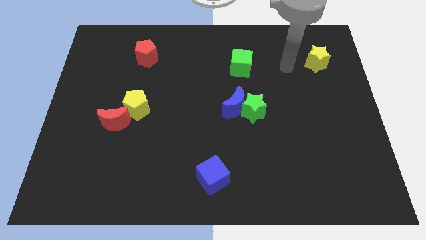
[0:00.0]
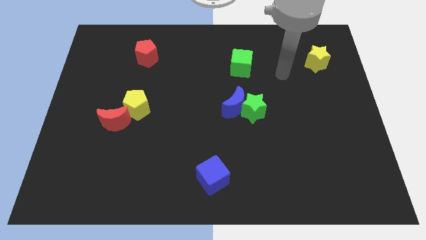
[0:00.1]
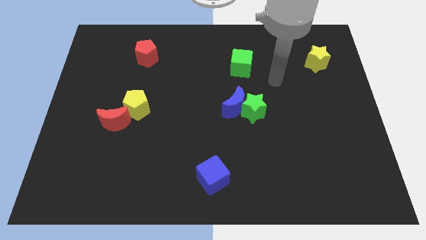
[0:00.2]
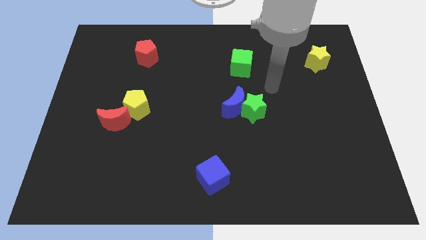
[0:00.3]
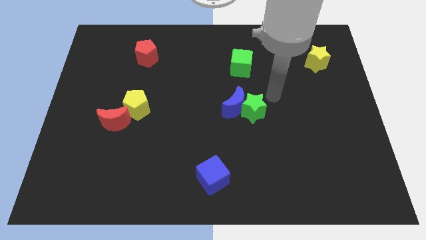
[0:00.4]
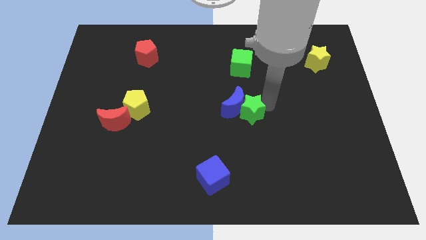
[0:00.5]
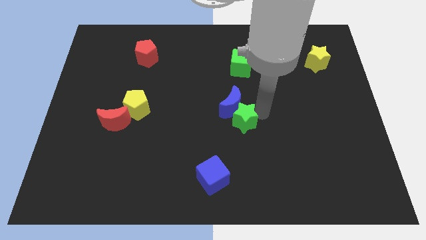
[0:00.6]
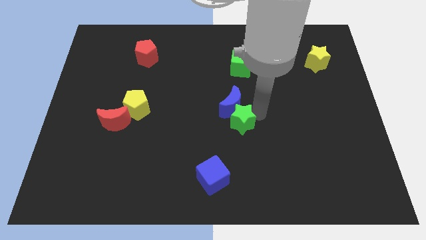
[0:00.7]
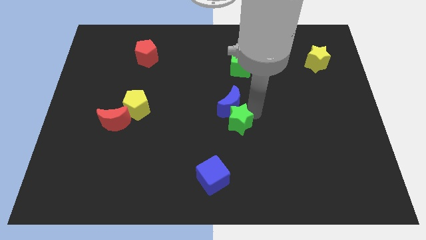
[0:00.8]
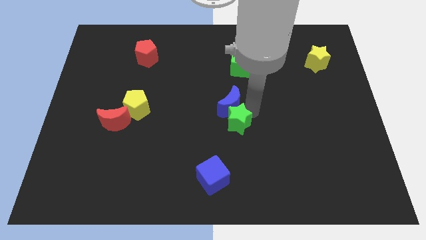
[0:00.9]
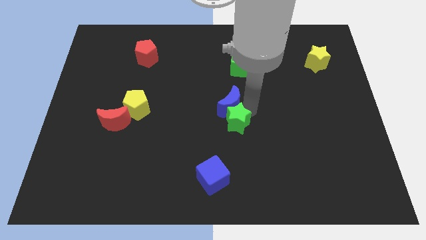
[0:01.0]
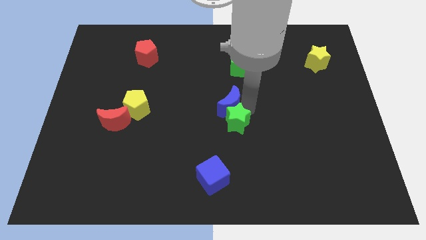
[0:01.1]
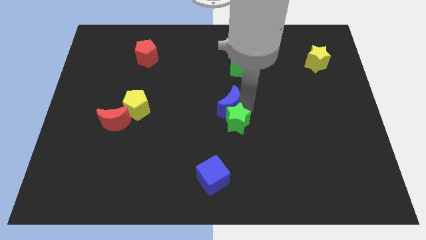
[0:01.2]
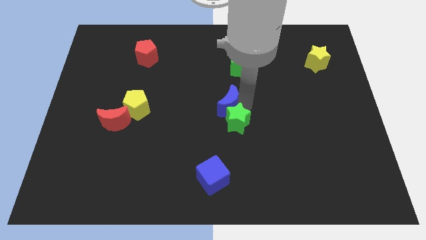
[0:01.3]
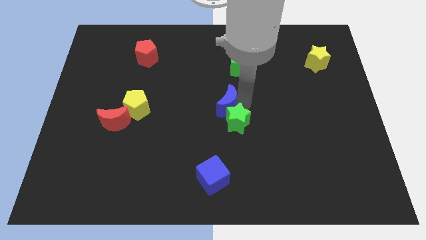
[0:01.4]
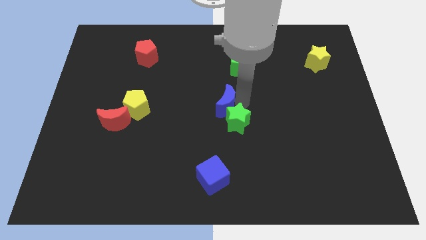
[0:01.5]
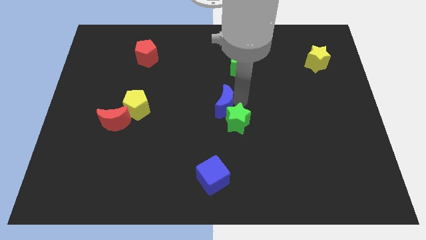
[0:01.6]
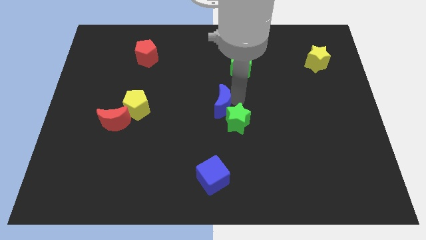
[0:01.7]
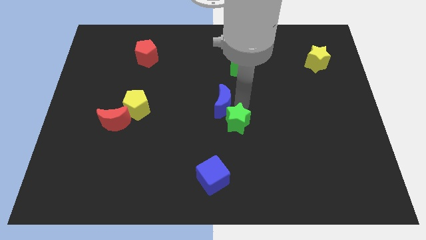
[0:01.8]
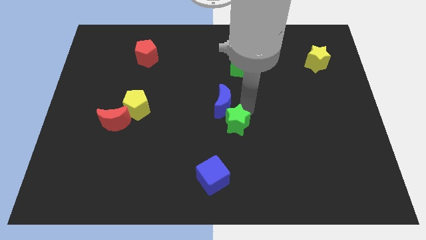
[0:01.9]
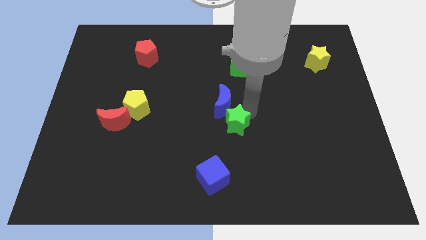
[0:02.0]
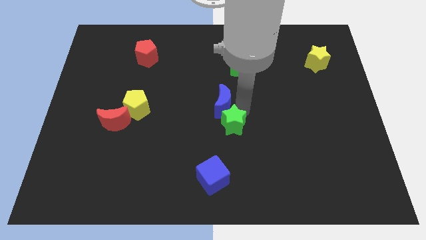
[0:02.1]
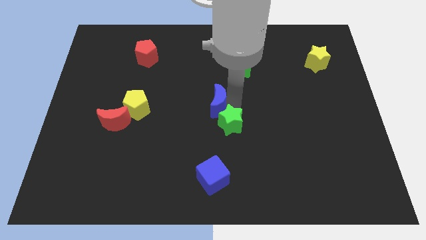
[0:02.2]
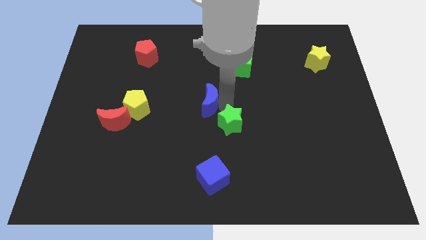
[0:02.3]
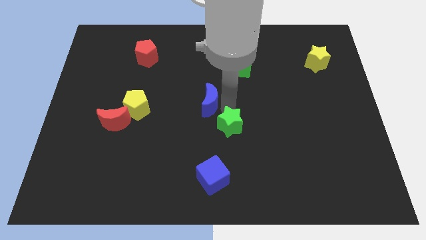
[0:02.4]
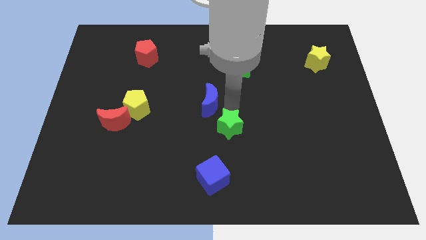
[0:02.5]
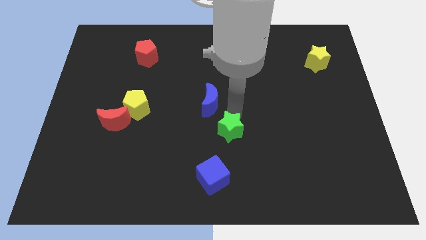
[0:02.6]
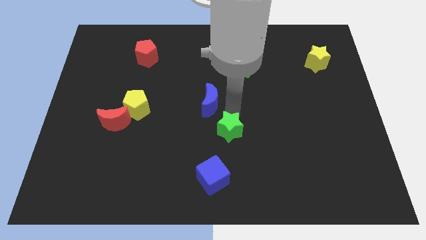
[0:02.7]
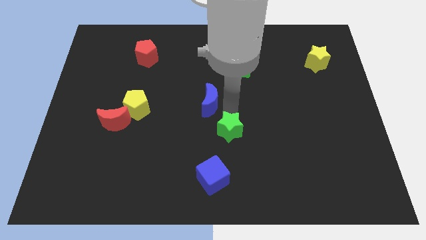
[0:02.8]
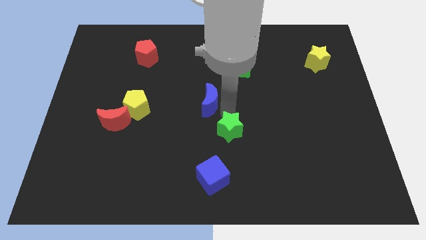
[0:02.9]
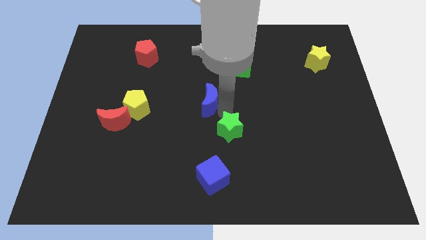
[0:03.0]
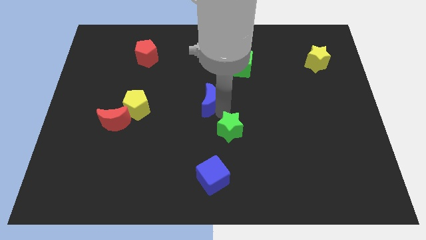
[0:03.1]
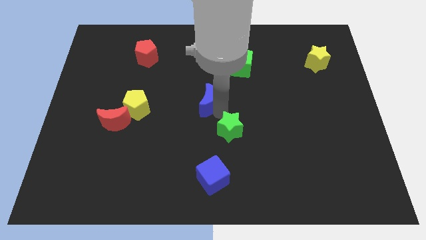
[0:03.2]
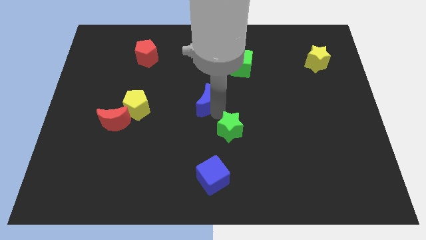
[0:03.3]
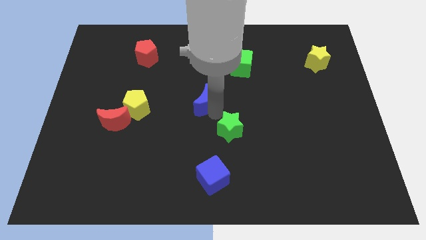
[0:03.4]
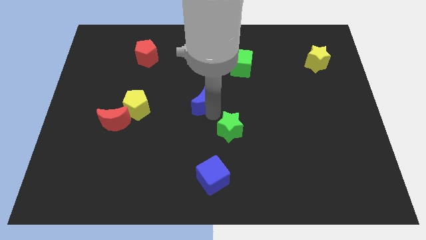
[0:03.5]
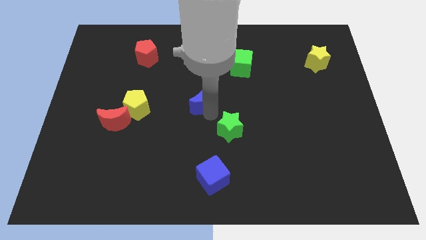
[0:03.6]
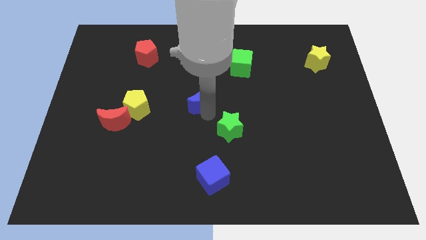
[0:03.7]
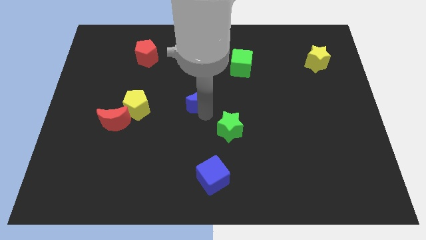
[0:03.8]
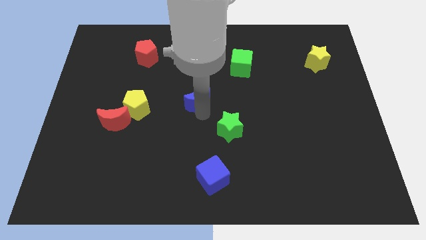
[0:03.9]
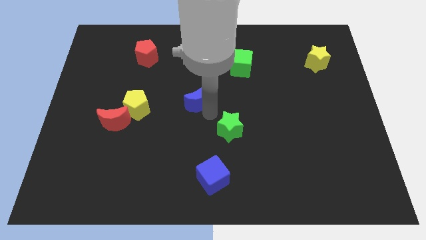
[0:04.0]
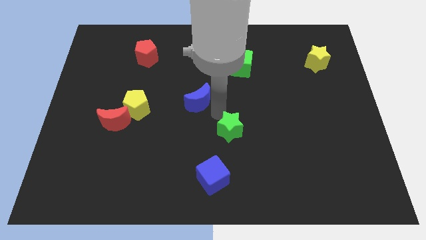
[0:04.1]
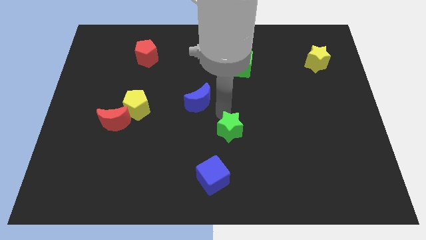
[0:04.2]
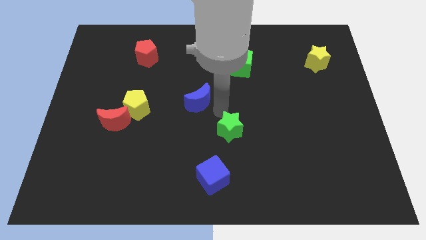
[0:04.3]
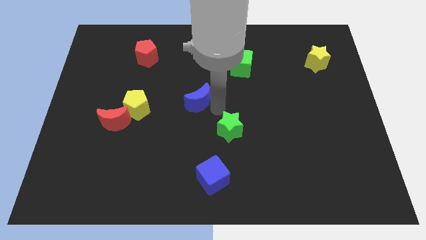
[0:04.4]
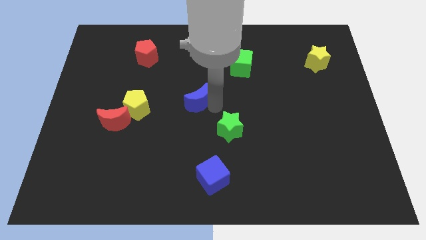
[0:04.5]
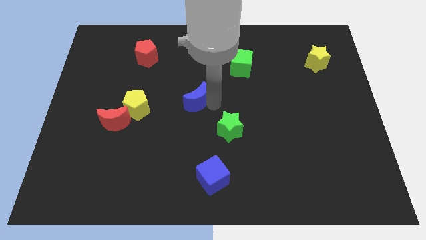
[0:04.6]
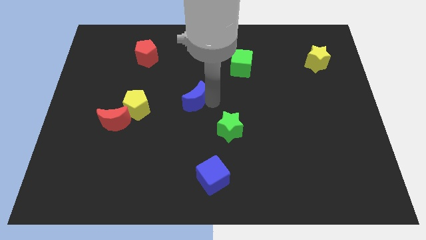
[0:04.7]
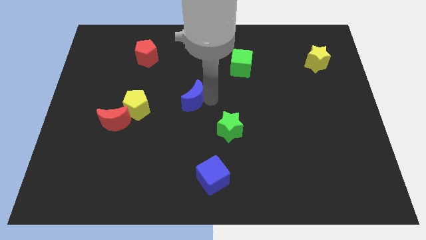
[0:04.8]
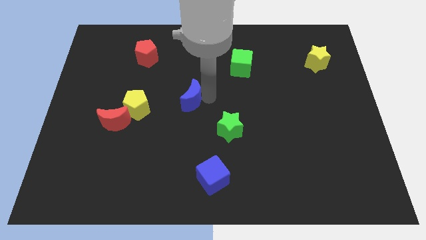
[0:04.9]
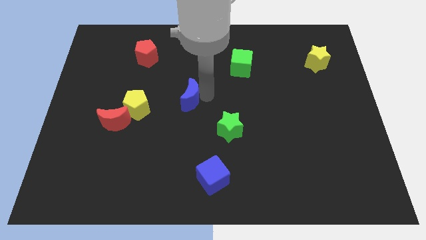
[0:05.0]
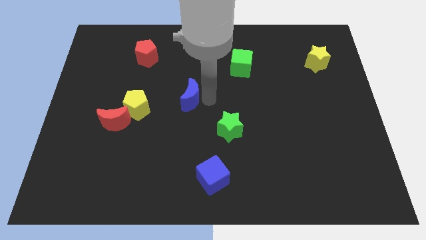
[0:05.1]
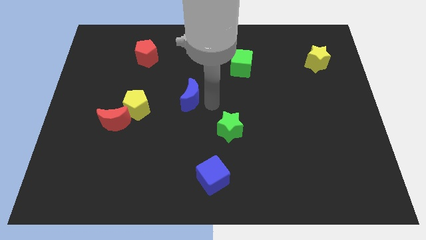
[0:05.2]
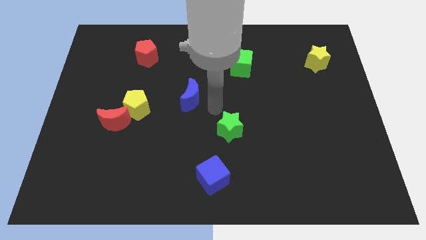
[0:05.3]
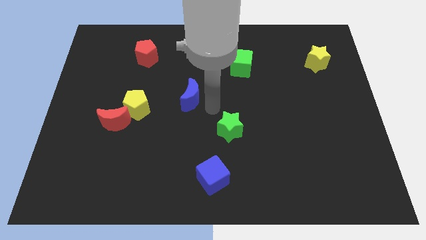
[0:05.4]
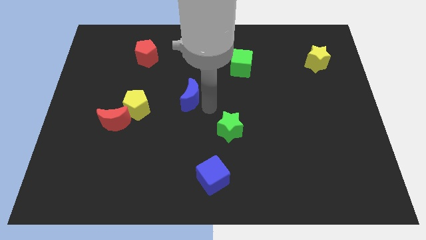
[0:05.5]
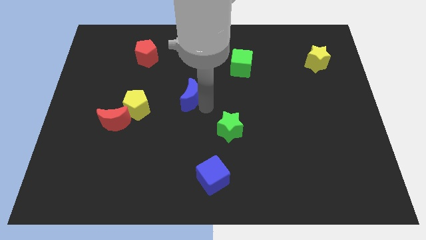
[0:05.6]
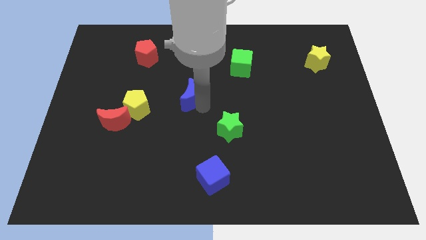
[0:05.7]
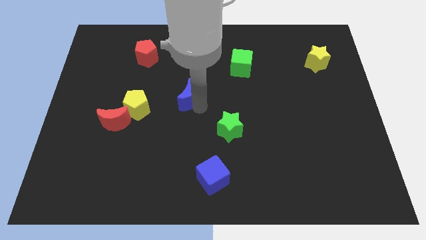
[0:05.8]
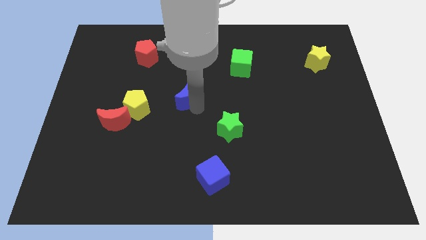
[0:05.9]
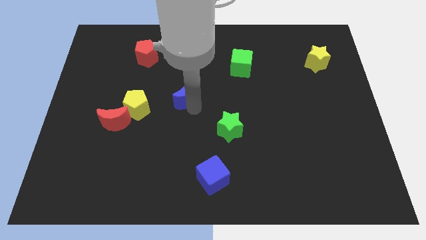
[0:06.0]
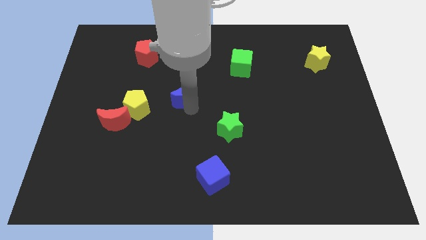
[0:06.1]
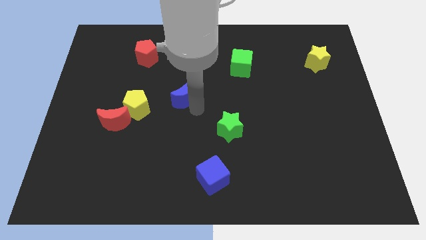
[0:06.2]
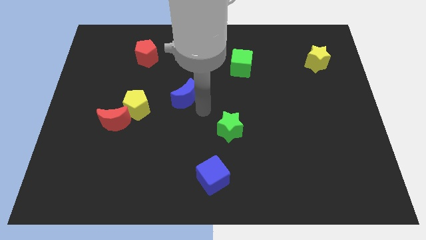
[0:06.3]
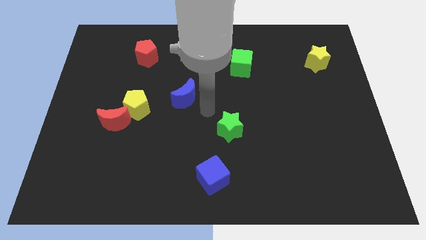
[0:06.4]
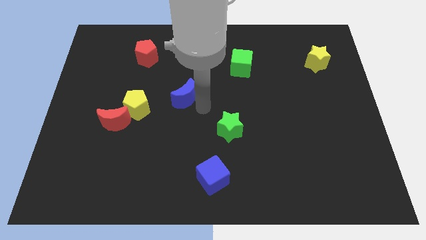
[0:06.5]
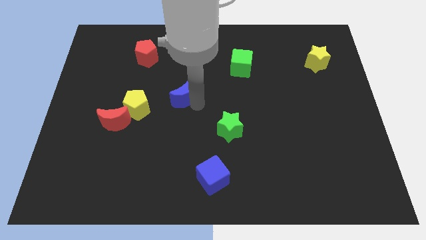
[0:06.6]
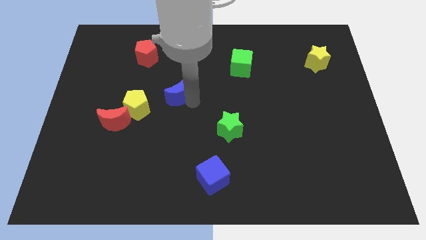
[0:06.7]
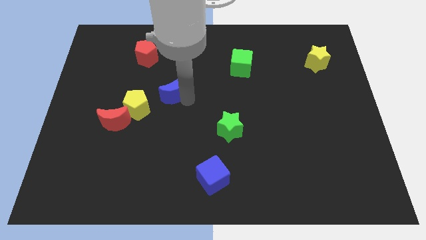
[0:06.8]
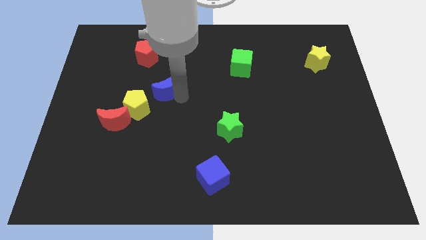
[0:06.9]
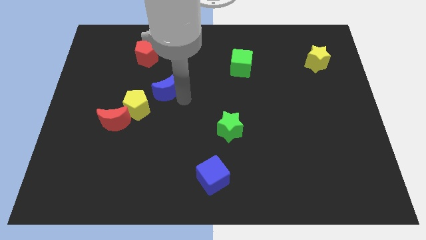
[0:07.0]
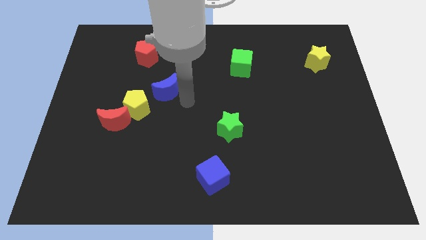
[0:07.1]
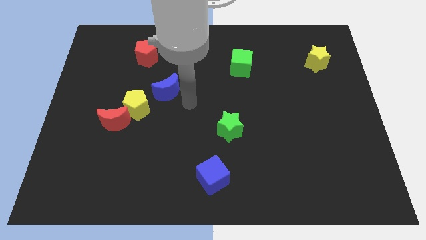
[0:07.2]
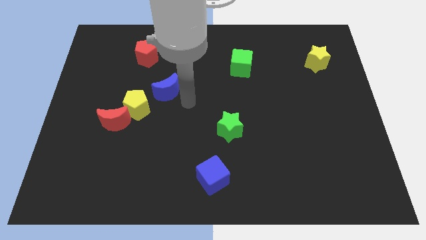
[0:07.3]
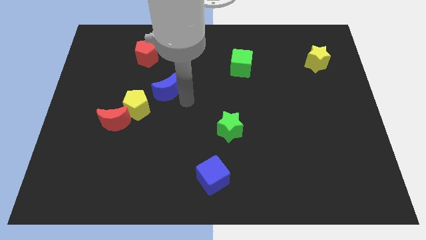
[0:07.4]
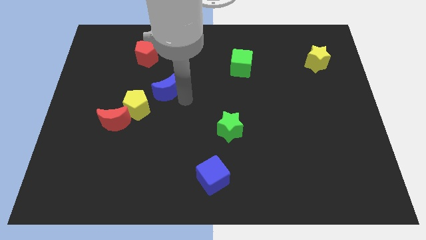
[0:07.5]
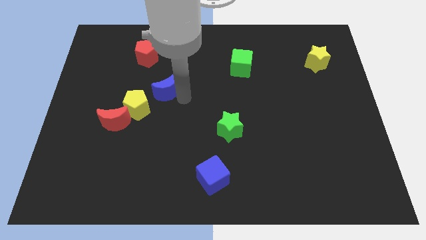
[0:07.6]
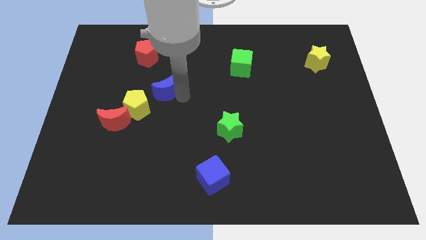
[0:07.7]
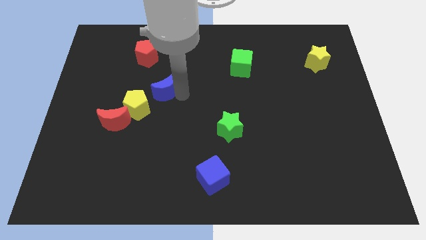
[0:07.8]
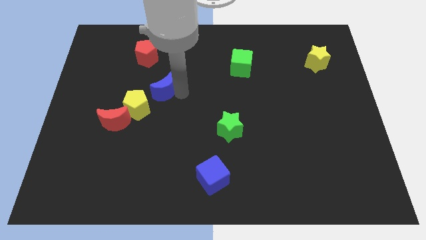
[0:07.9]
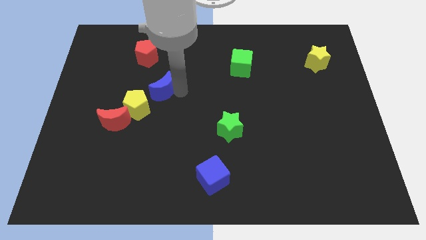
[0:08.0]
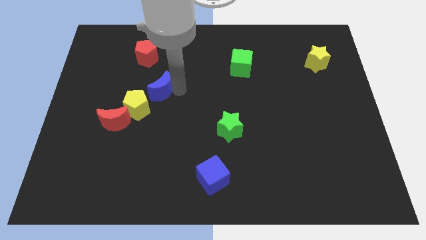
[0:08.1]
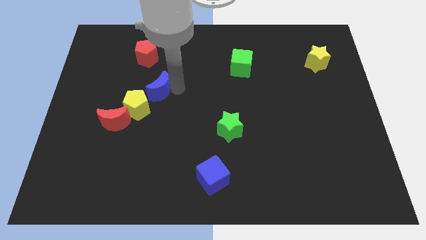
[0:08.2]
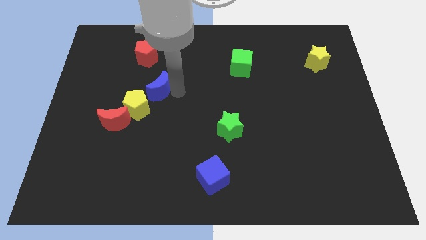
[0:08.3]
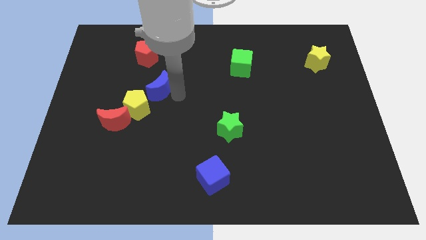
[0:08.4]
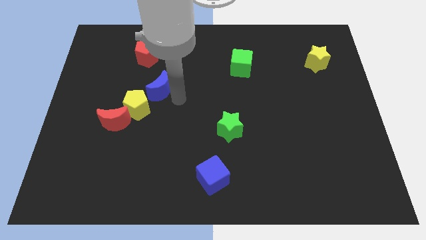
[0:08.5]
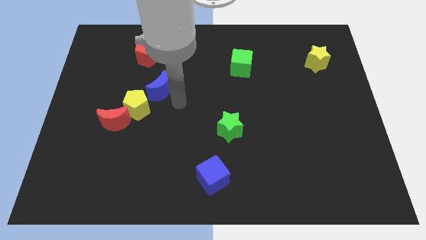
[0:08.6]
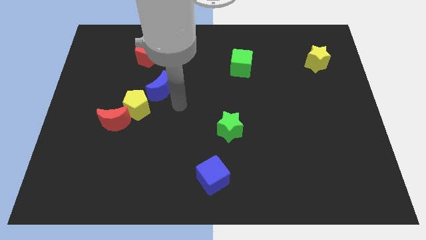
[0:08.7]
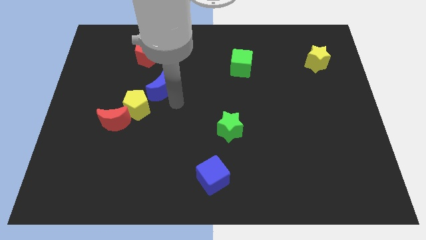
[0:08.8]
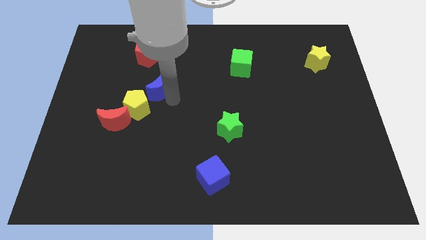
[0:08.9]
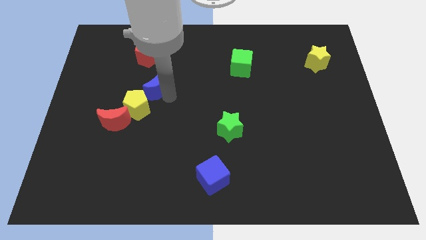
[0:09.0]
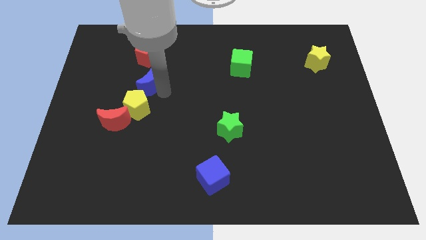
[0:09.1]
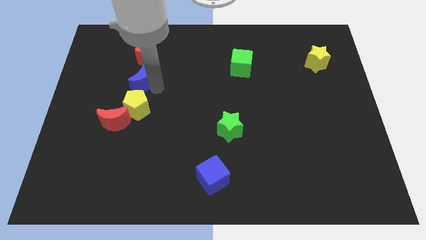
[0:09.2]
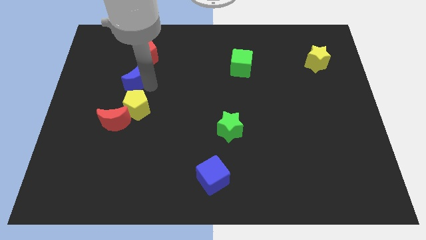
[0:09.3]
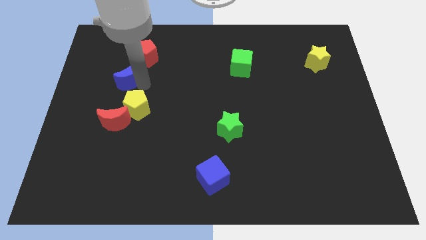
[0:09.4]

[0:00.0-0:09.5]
slide the blue moon to the bottom left side of the red pentagon
